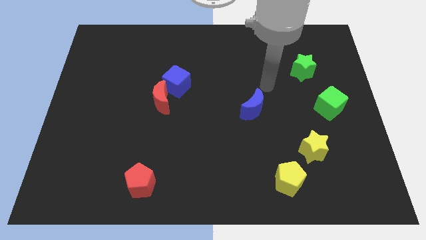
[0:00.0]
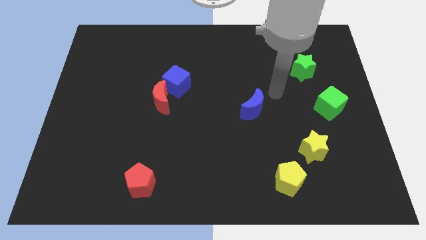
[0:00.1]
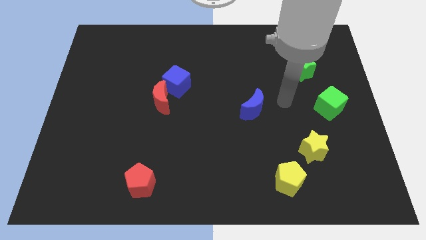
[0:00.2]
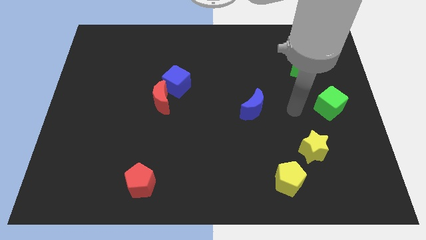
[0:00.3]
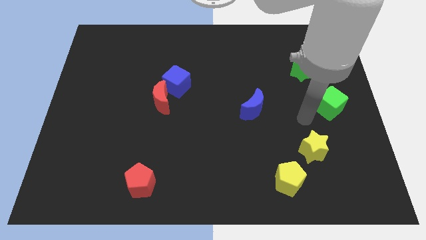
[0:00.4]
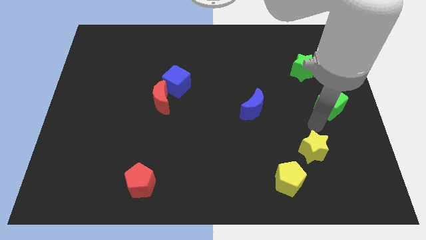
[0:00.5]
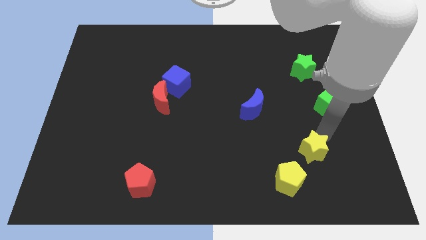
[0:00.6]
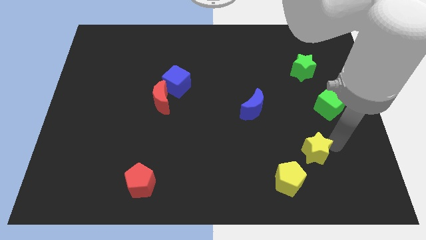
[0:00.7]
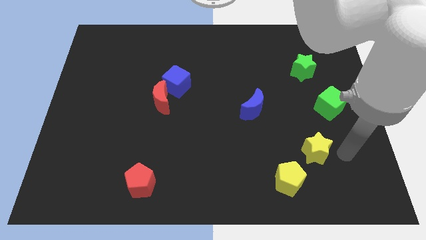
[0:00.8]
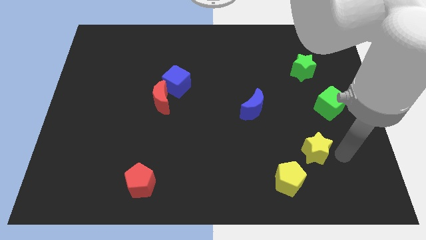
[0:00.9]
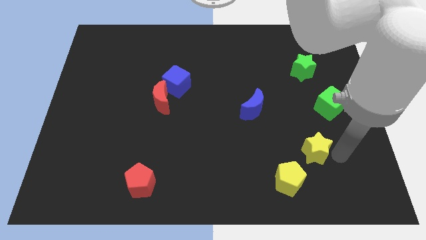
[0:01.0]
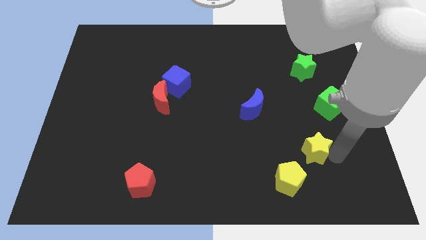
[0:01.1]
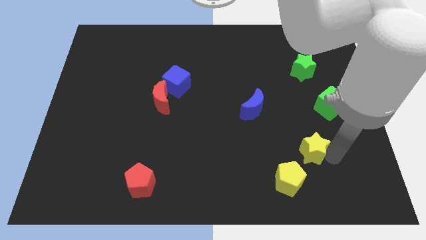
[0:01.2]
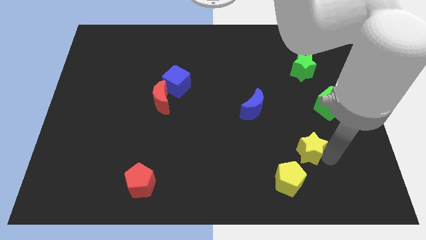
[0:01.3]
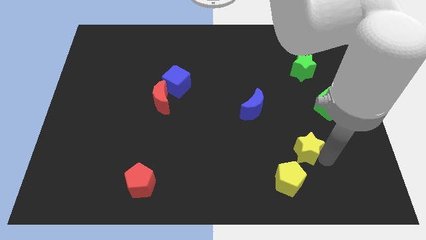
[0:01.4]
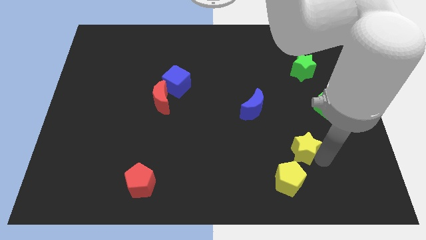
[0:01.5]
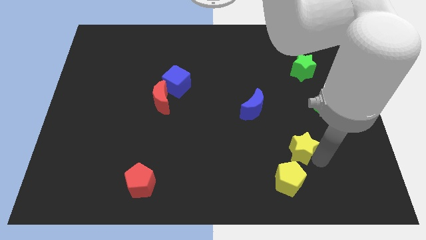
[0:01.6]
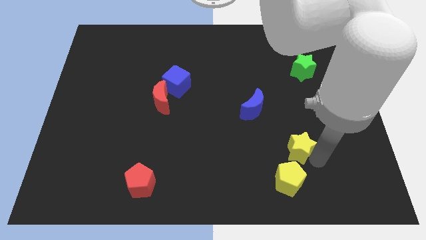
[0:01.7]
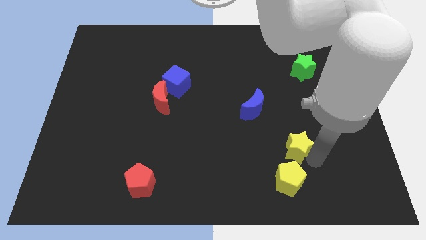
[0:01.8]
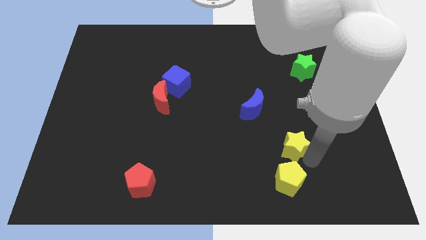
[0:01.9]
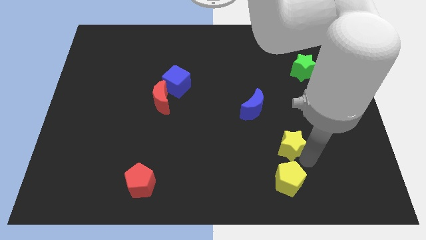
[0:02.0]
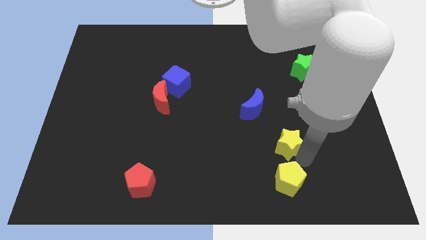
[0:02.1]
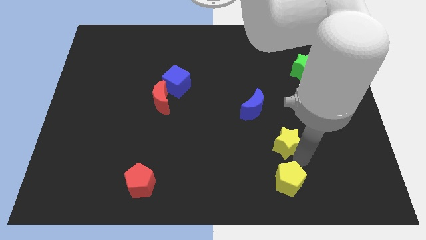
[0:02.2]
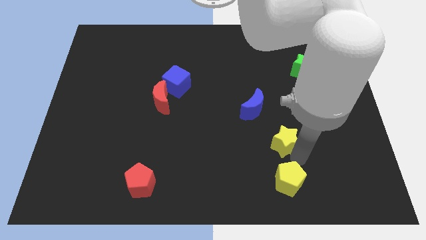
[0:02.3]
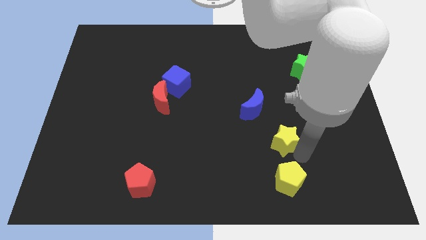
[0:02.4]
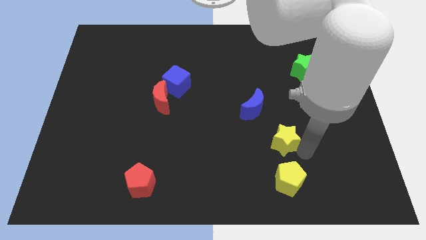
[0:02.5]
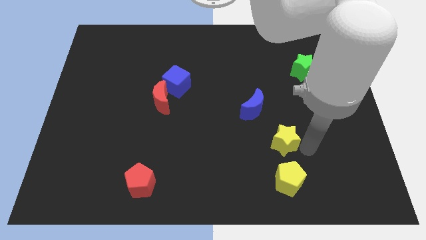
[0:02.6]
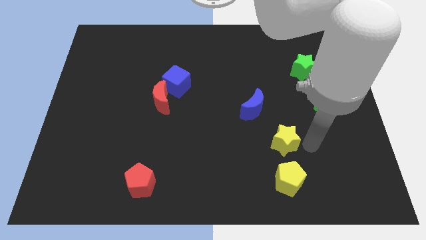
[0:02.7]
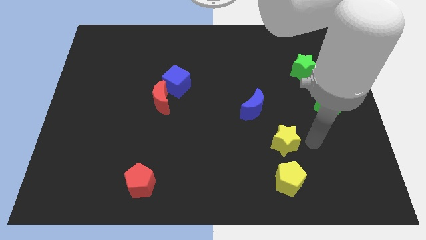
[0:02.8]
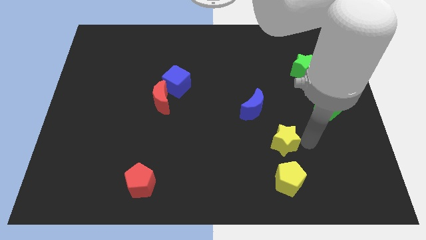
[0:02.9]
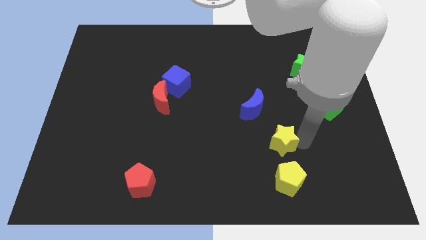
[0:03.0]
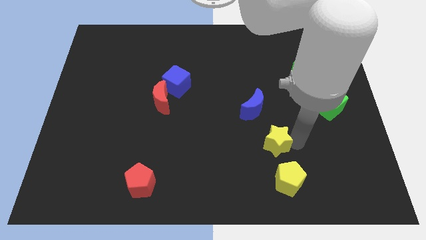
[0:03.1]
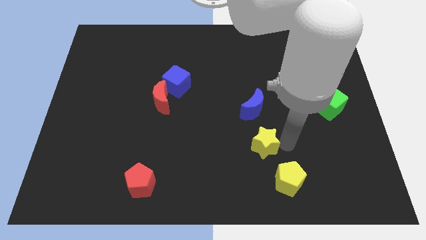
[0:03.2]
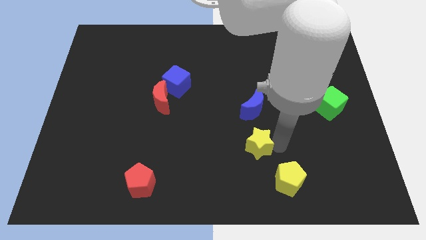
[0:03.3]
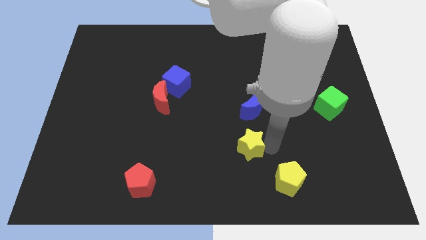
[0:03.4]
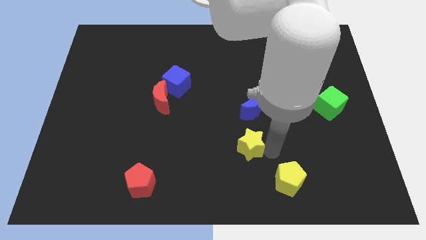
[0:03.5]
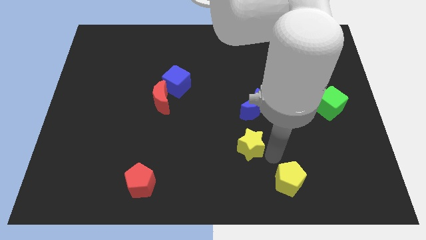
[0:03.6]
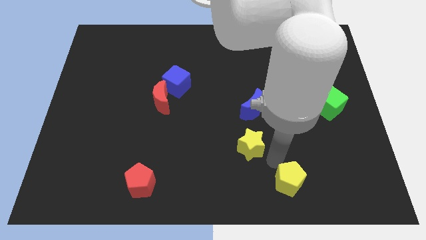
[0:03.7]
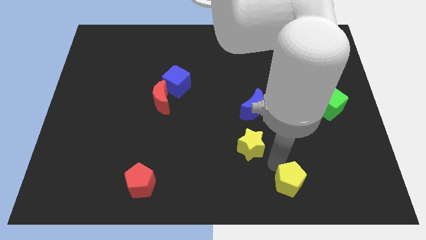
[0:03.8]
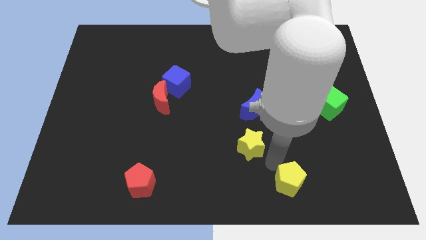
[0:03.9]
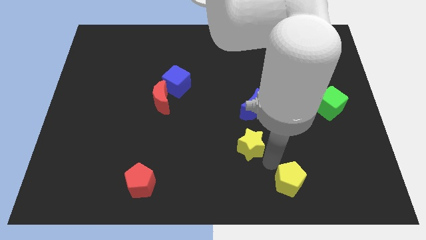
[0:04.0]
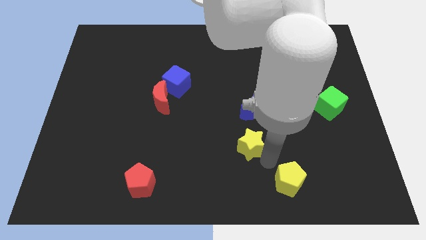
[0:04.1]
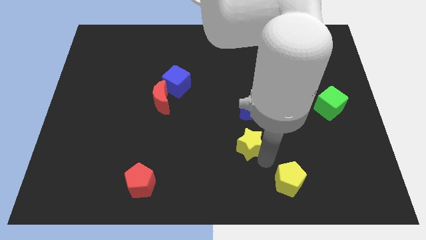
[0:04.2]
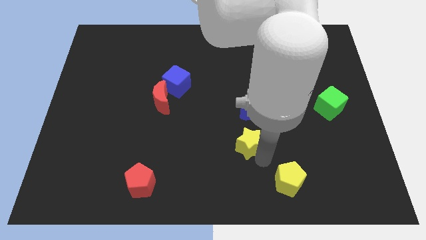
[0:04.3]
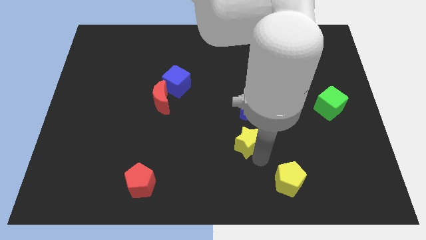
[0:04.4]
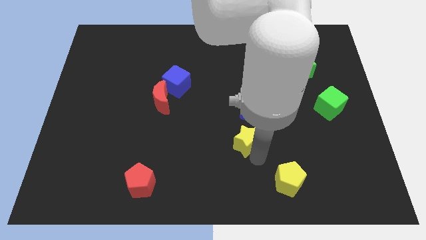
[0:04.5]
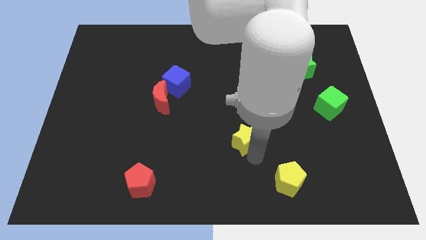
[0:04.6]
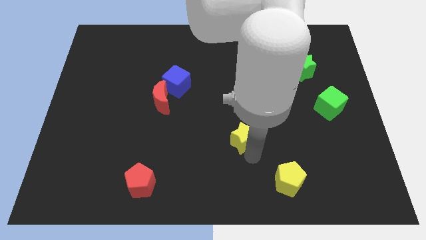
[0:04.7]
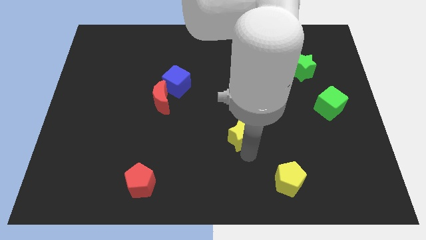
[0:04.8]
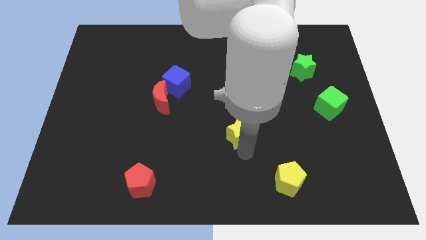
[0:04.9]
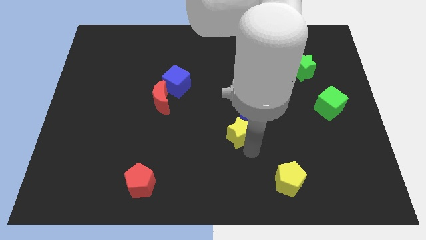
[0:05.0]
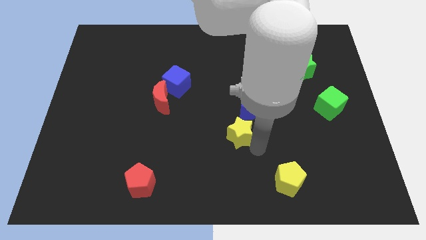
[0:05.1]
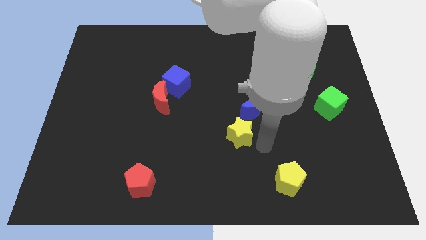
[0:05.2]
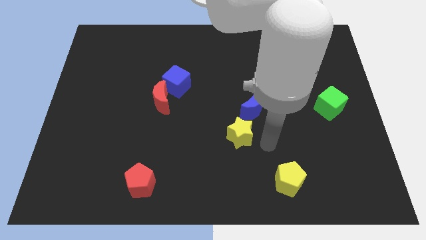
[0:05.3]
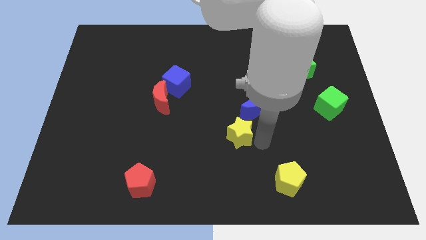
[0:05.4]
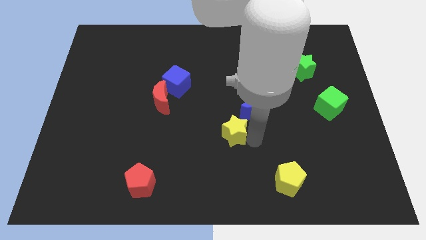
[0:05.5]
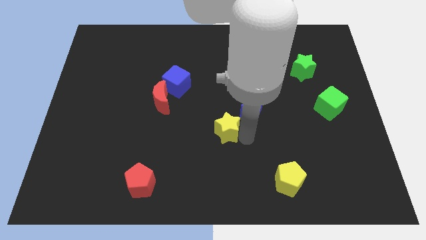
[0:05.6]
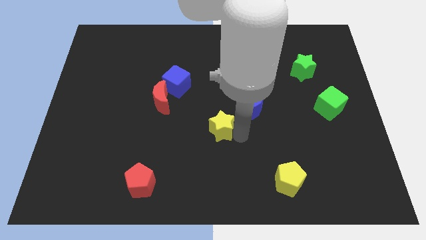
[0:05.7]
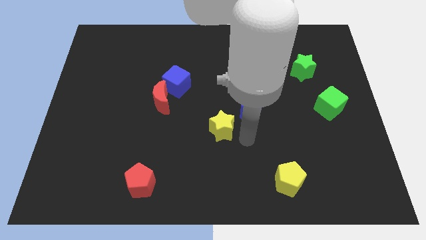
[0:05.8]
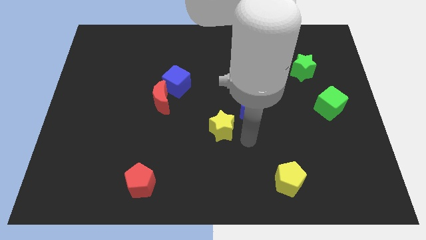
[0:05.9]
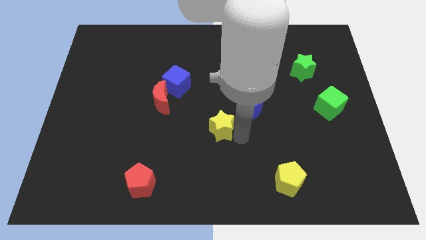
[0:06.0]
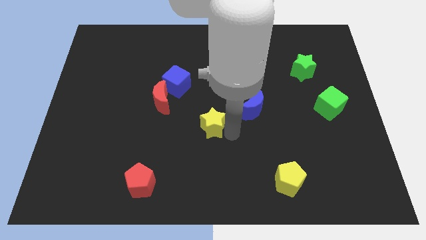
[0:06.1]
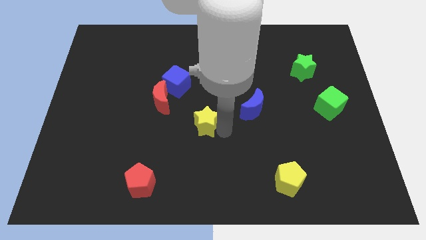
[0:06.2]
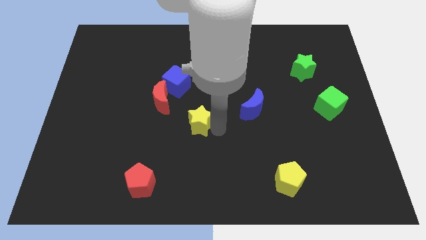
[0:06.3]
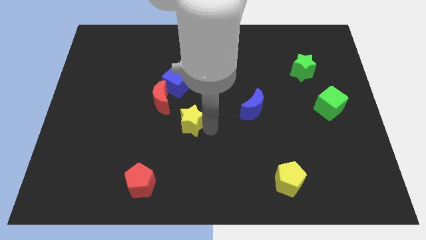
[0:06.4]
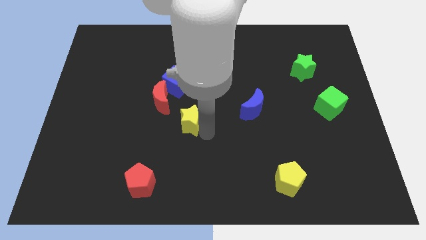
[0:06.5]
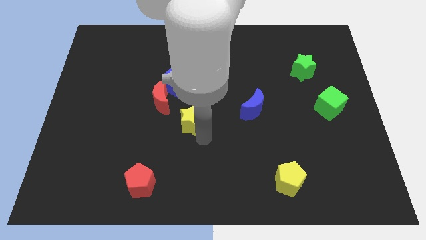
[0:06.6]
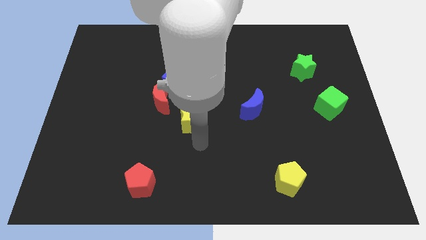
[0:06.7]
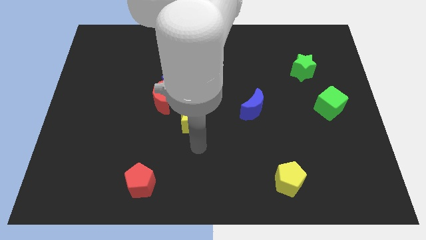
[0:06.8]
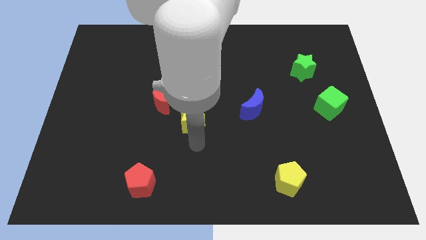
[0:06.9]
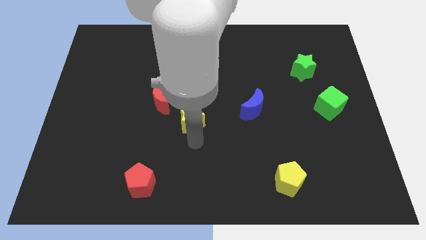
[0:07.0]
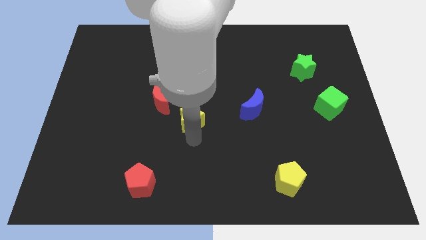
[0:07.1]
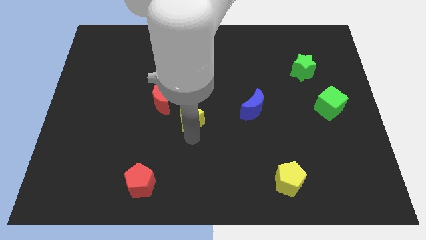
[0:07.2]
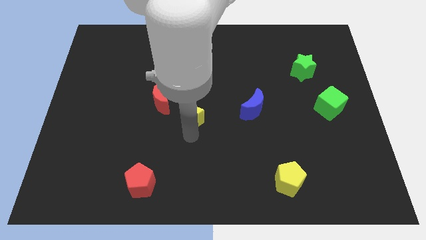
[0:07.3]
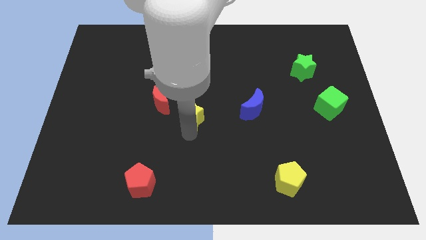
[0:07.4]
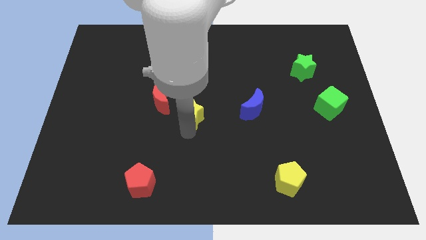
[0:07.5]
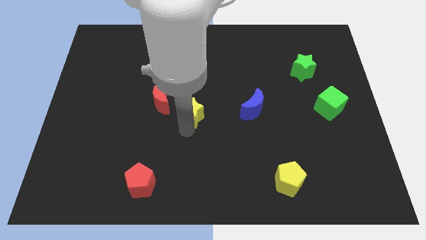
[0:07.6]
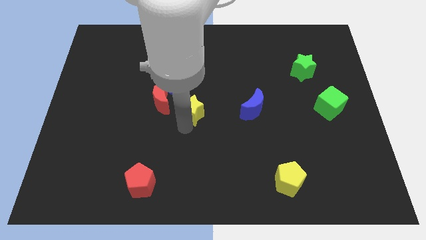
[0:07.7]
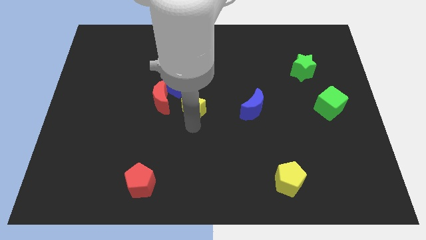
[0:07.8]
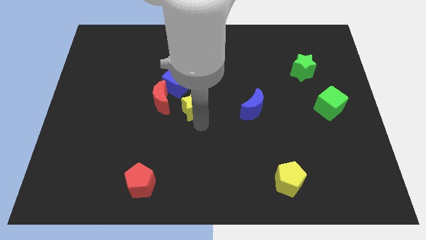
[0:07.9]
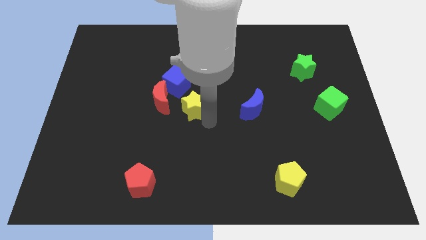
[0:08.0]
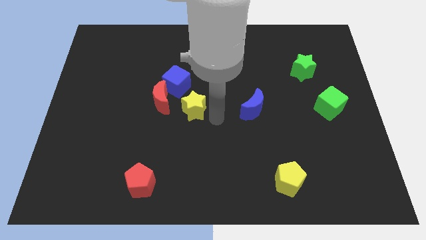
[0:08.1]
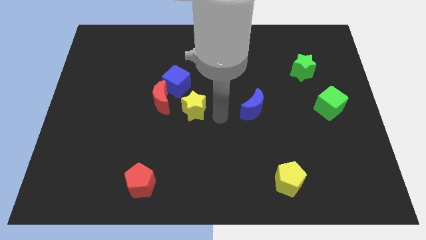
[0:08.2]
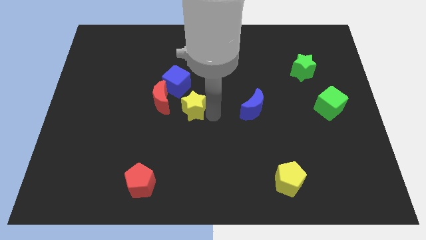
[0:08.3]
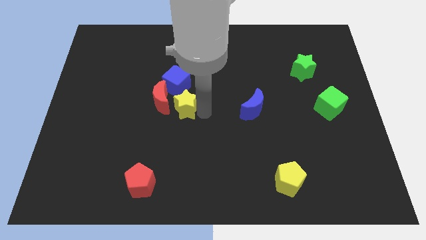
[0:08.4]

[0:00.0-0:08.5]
push the yellow star towards the red moon
